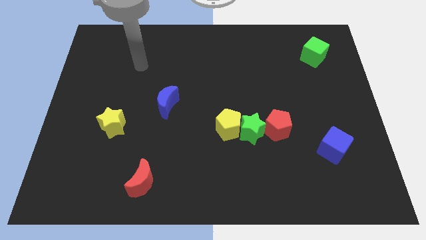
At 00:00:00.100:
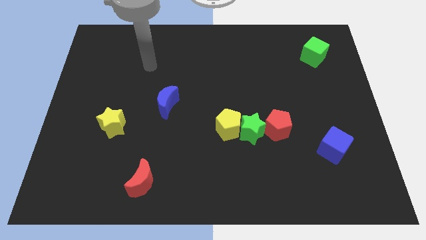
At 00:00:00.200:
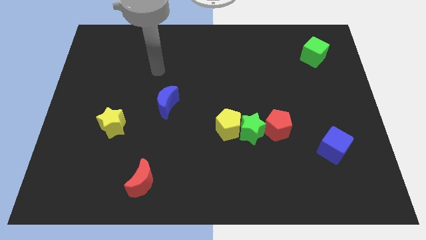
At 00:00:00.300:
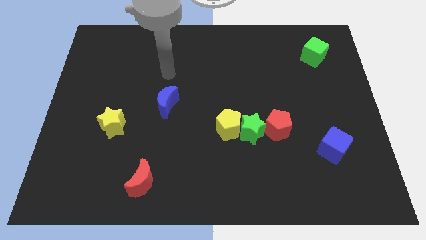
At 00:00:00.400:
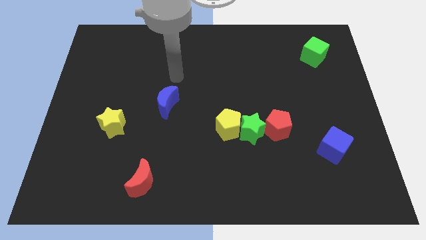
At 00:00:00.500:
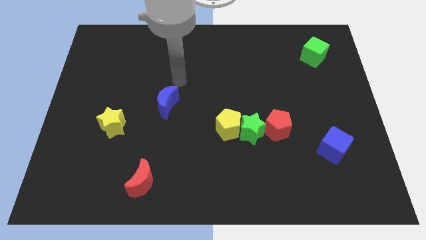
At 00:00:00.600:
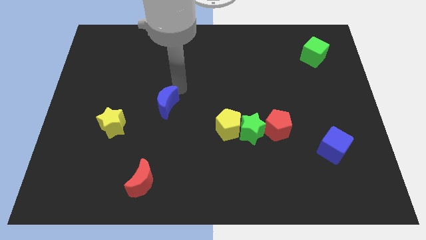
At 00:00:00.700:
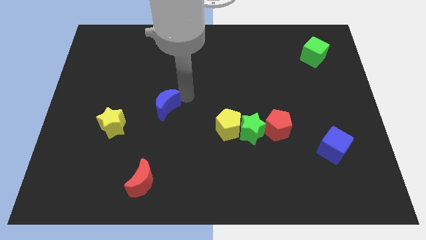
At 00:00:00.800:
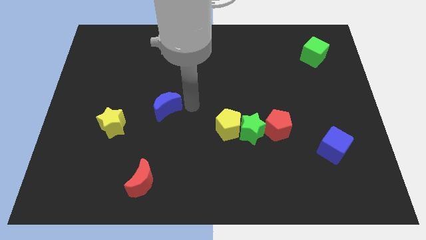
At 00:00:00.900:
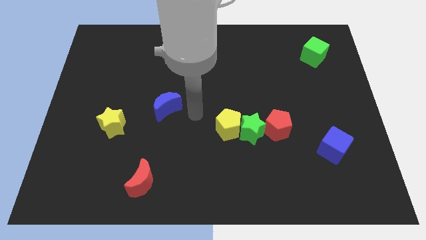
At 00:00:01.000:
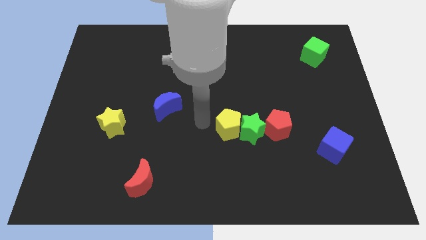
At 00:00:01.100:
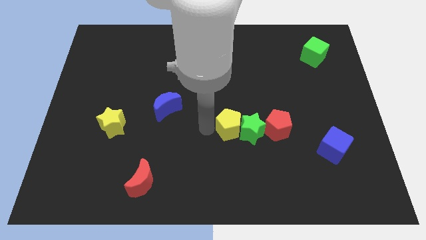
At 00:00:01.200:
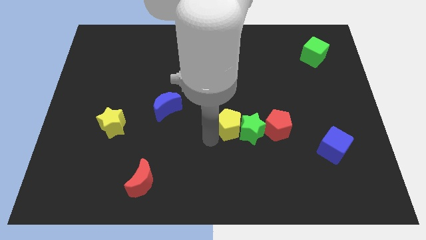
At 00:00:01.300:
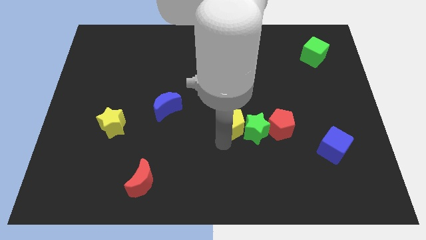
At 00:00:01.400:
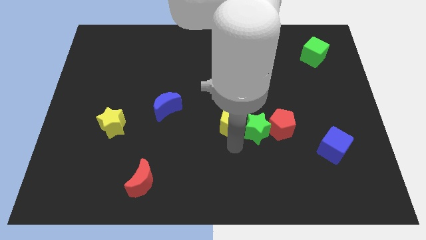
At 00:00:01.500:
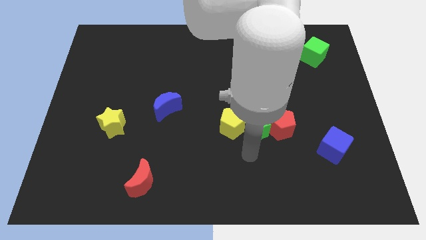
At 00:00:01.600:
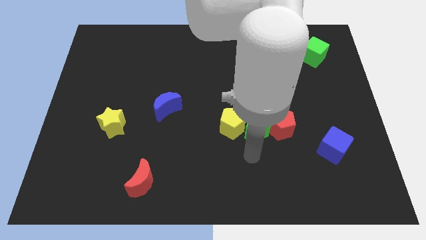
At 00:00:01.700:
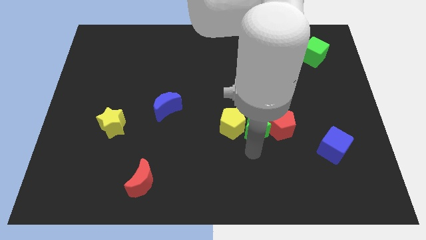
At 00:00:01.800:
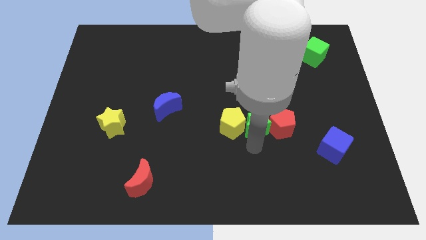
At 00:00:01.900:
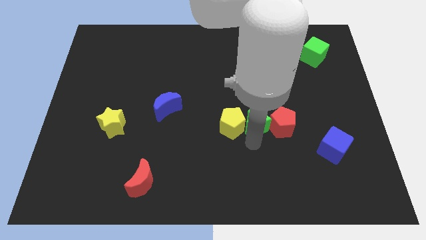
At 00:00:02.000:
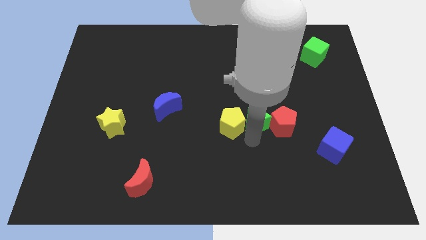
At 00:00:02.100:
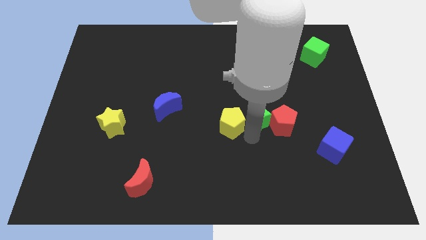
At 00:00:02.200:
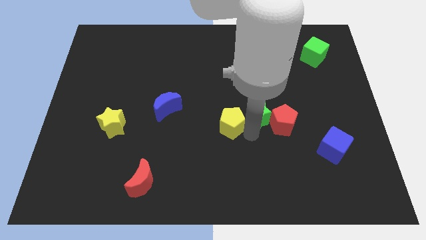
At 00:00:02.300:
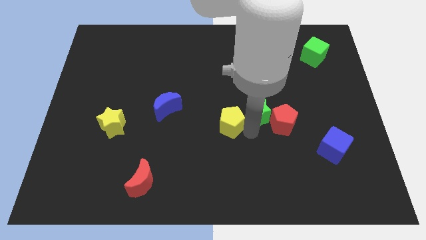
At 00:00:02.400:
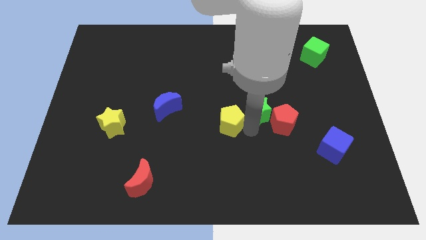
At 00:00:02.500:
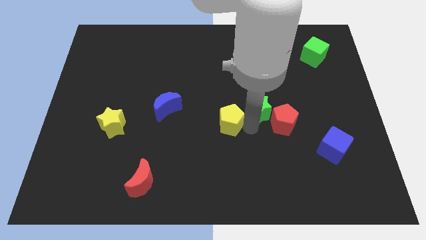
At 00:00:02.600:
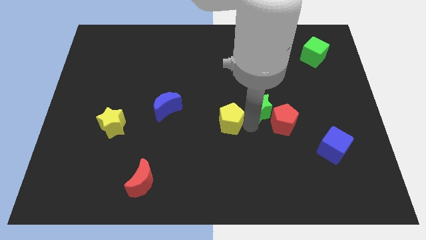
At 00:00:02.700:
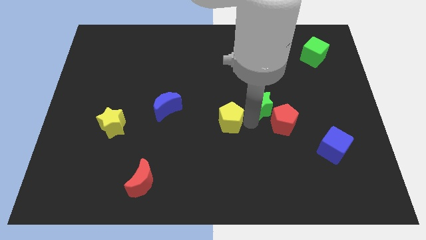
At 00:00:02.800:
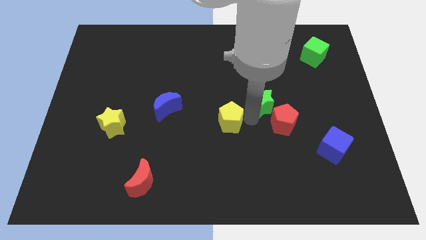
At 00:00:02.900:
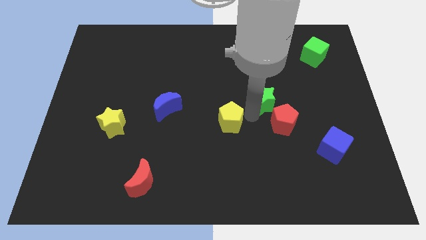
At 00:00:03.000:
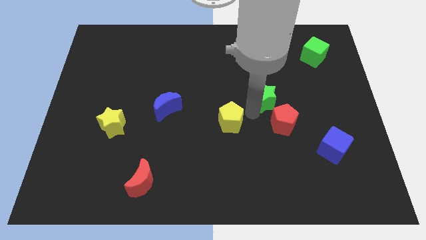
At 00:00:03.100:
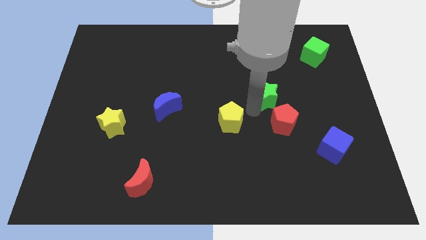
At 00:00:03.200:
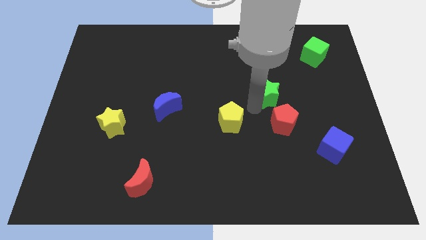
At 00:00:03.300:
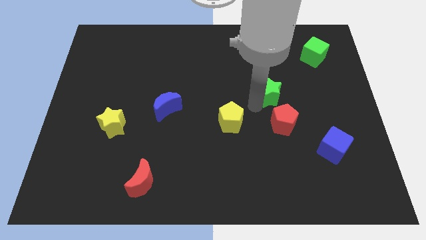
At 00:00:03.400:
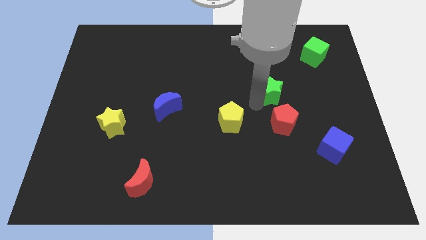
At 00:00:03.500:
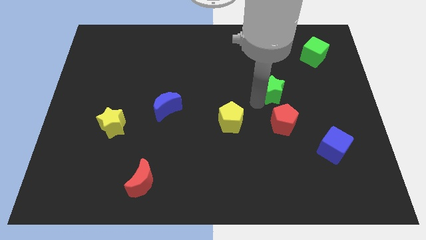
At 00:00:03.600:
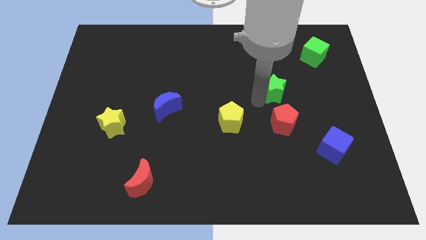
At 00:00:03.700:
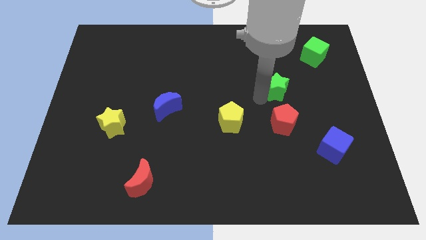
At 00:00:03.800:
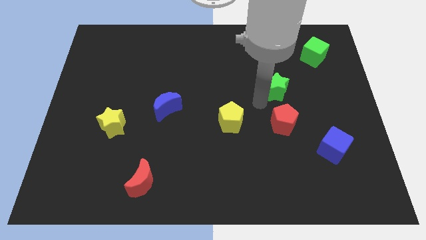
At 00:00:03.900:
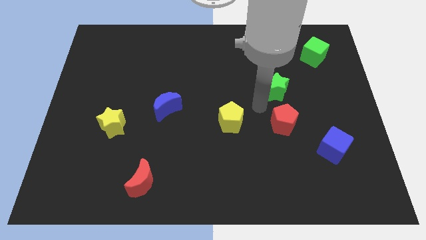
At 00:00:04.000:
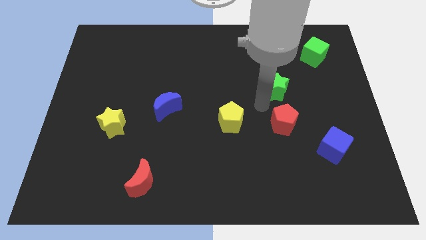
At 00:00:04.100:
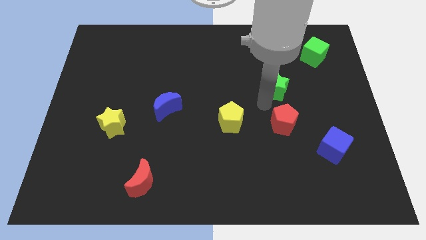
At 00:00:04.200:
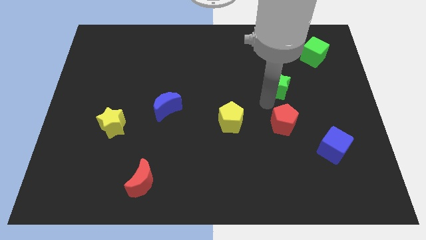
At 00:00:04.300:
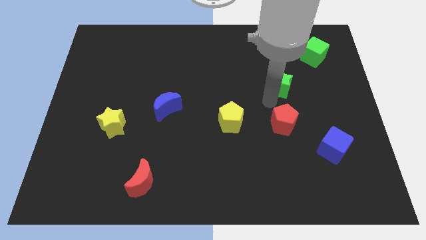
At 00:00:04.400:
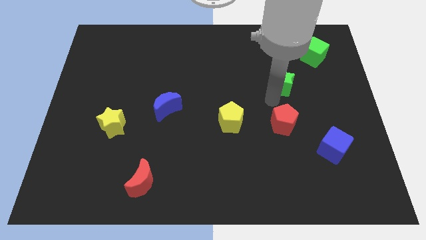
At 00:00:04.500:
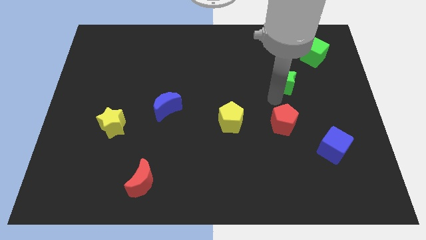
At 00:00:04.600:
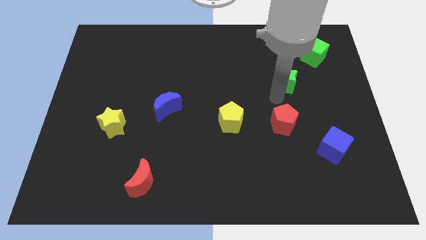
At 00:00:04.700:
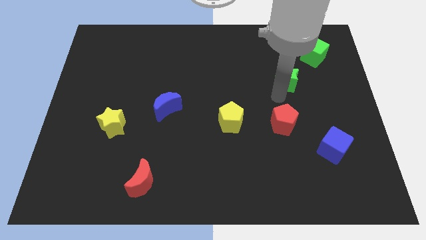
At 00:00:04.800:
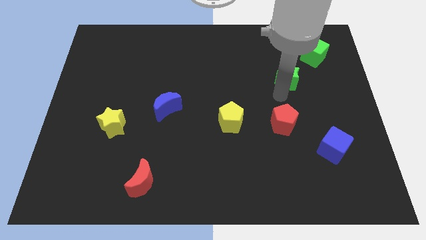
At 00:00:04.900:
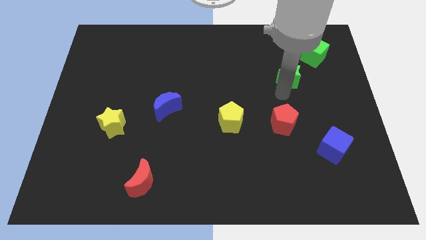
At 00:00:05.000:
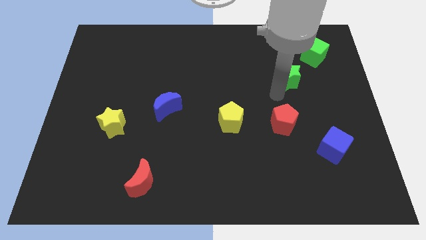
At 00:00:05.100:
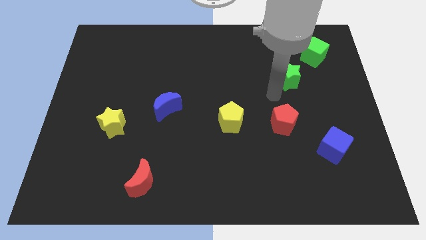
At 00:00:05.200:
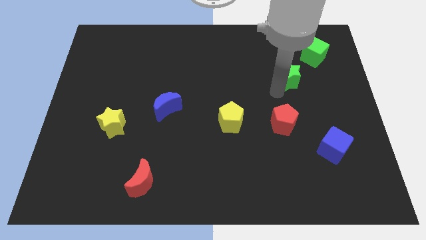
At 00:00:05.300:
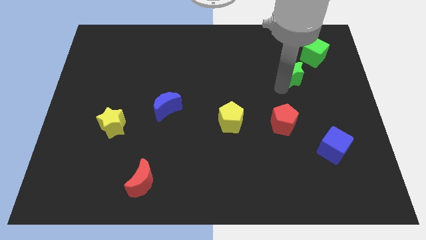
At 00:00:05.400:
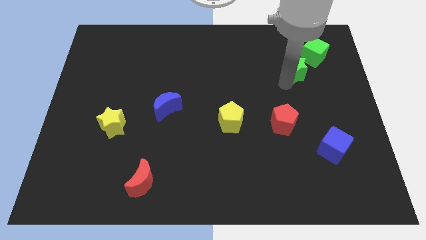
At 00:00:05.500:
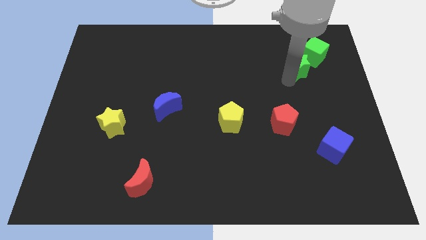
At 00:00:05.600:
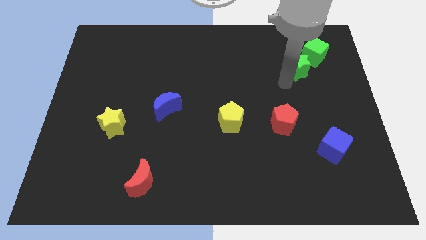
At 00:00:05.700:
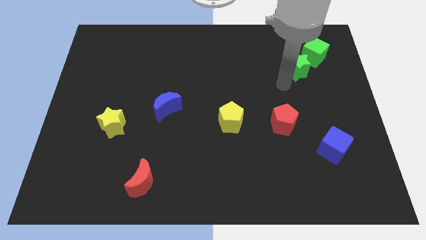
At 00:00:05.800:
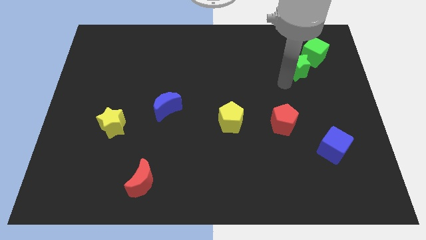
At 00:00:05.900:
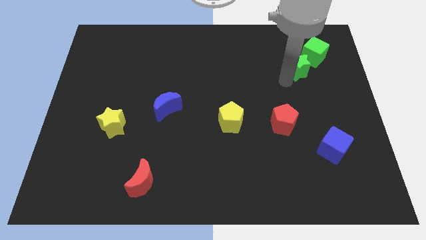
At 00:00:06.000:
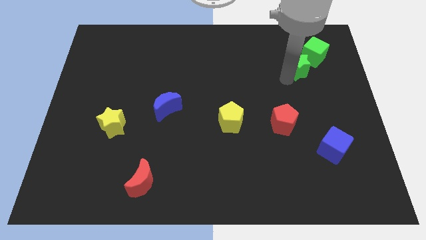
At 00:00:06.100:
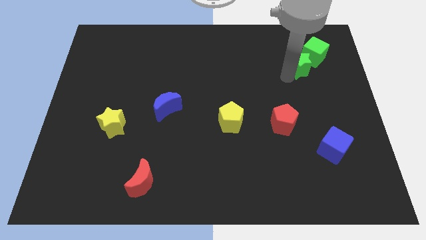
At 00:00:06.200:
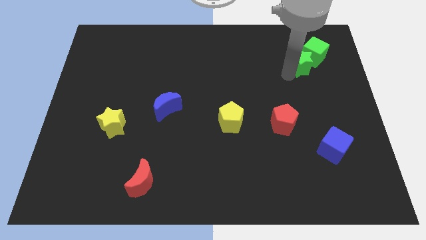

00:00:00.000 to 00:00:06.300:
slide the green star next to the green cube
